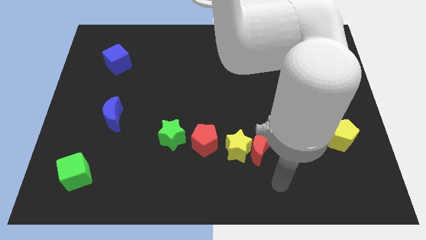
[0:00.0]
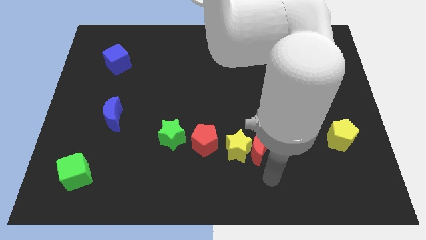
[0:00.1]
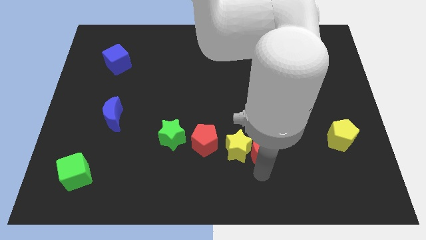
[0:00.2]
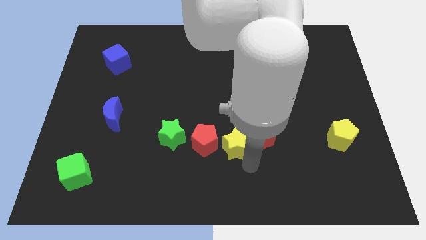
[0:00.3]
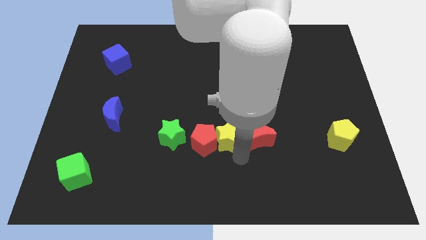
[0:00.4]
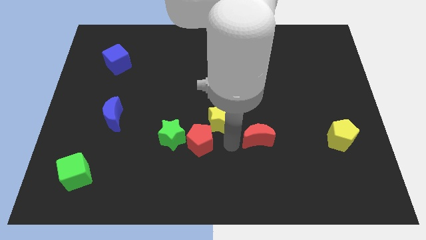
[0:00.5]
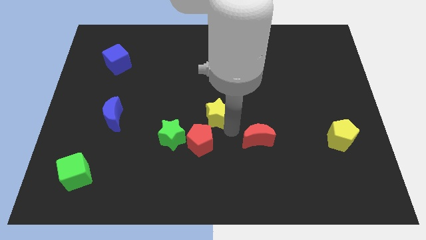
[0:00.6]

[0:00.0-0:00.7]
move the red moon away from the yellow star

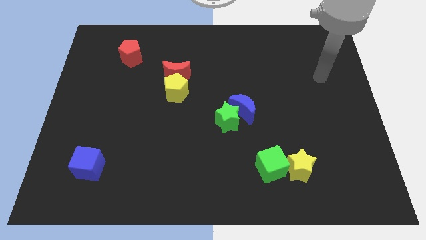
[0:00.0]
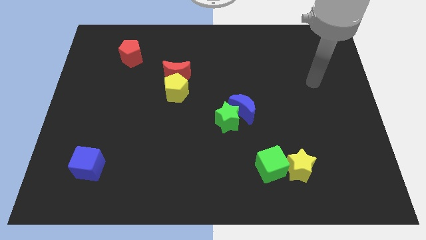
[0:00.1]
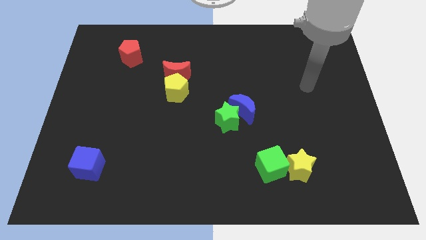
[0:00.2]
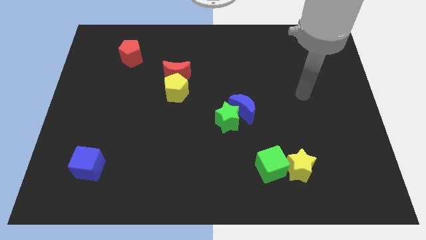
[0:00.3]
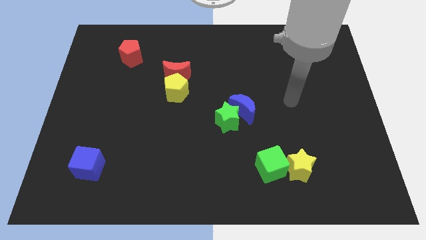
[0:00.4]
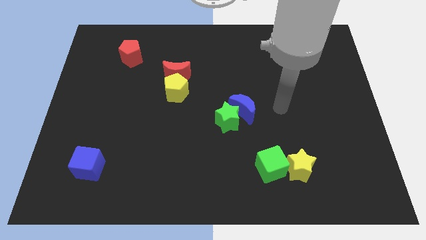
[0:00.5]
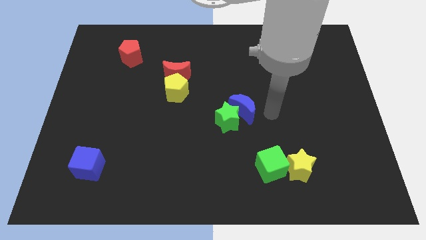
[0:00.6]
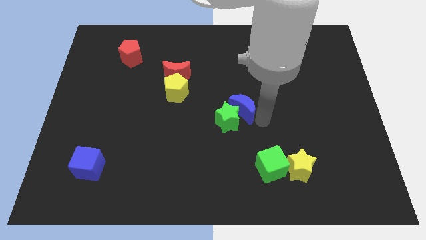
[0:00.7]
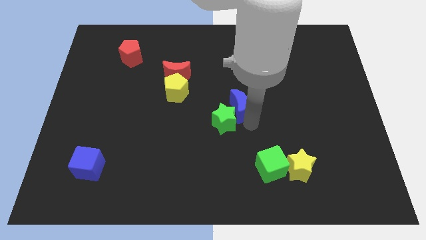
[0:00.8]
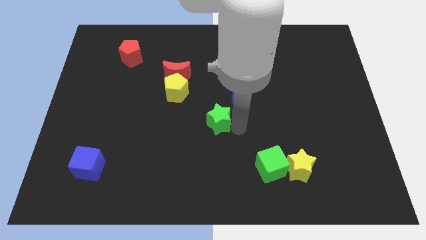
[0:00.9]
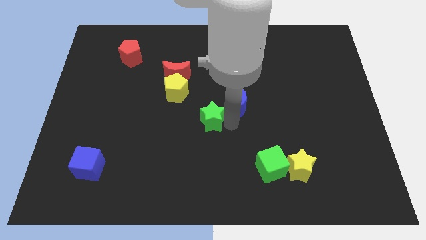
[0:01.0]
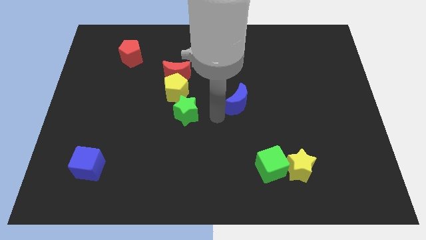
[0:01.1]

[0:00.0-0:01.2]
move the blue moon away from the green star

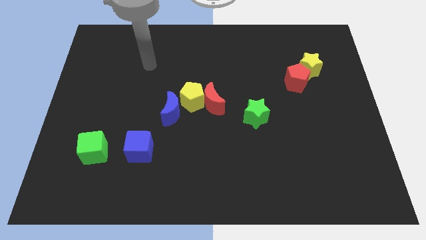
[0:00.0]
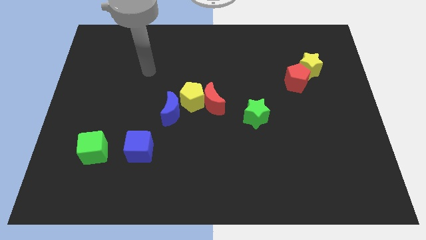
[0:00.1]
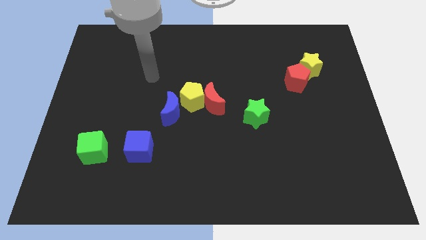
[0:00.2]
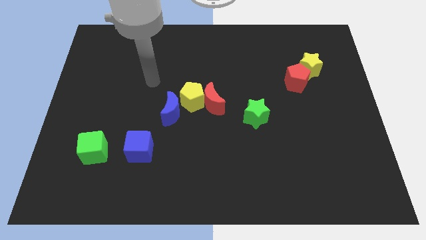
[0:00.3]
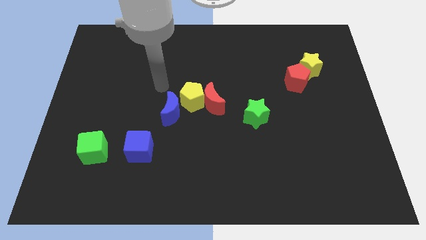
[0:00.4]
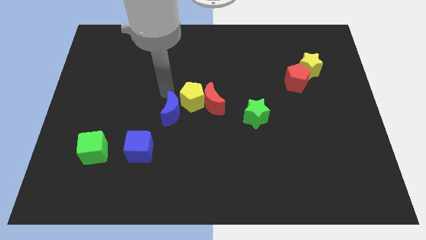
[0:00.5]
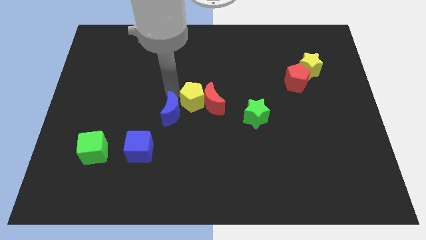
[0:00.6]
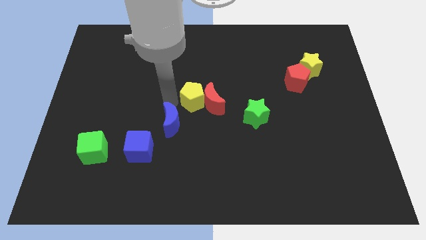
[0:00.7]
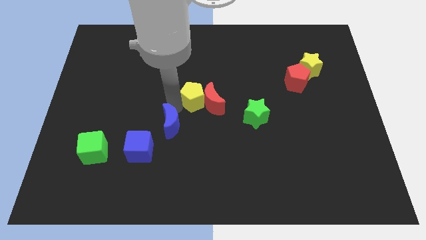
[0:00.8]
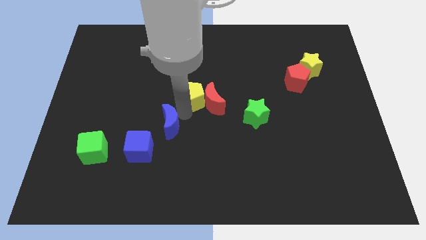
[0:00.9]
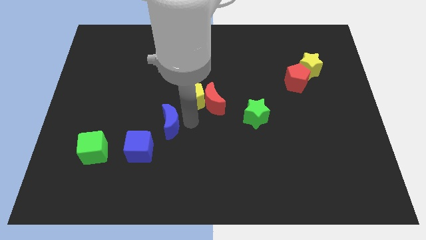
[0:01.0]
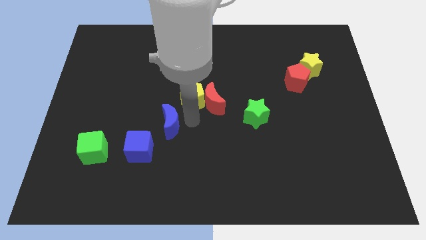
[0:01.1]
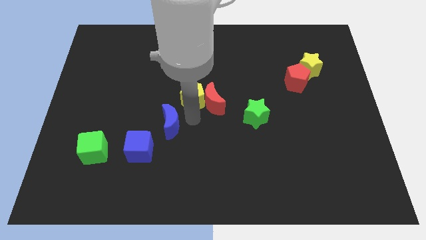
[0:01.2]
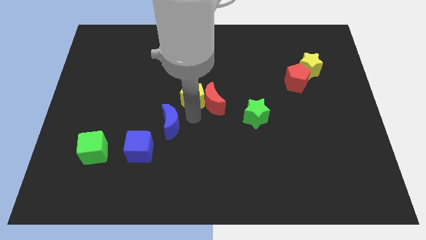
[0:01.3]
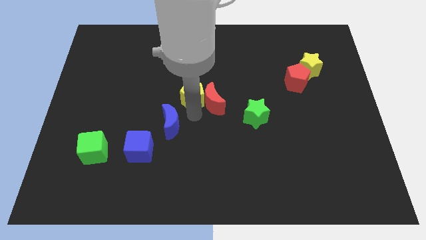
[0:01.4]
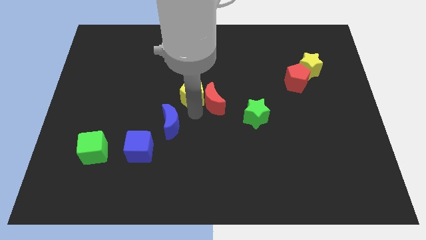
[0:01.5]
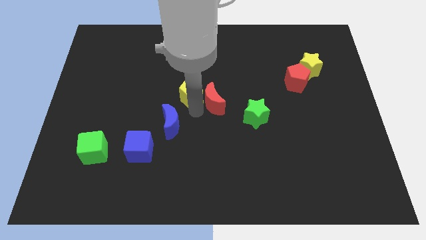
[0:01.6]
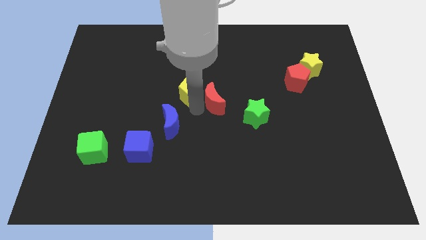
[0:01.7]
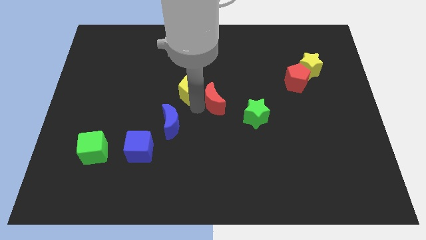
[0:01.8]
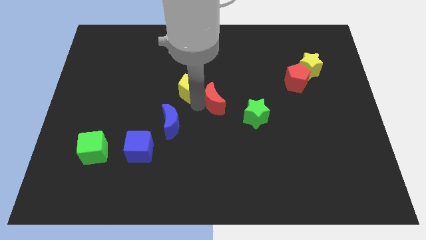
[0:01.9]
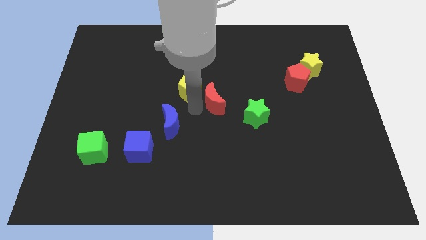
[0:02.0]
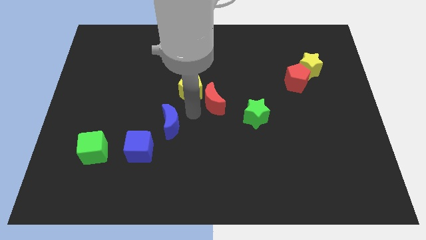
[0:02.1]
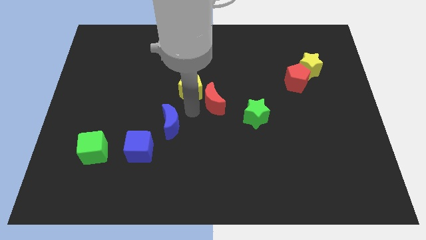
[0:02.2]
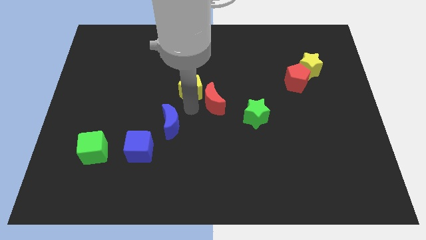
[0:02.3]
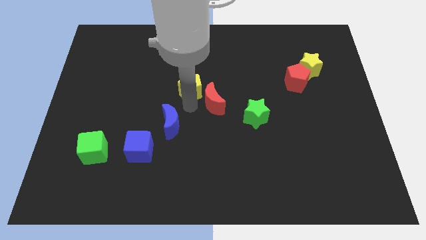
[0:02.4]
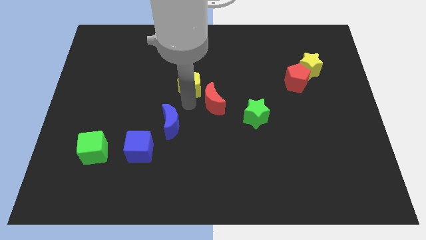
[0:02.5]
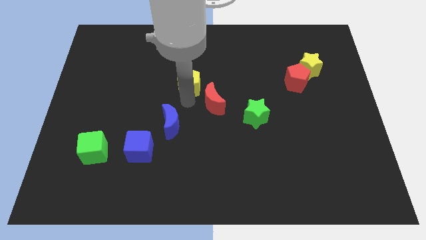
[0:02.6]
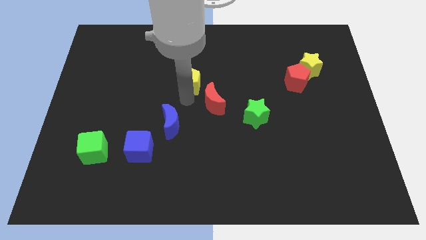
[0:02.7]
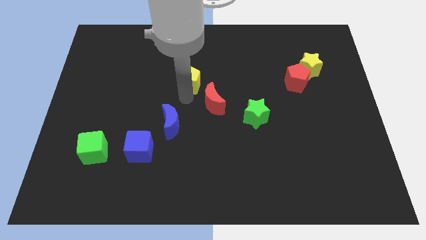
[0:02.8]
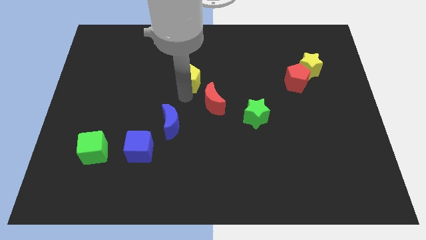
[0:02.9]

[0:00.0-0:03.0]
move the yellow pentagon away from the red moon and blue moon

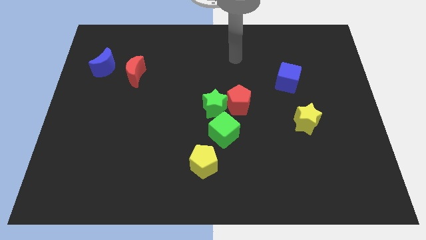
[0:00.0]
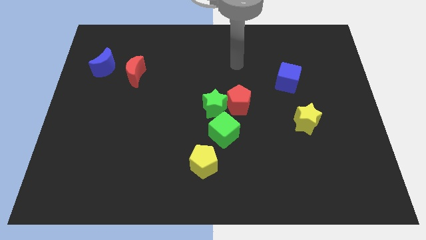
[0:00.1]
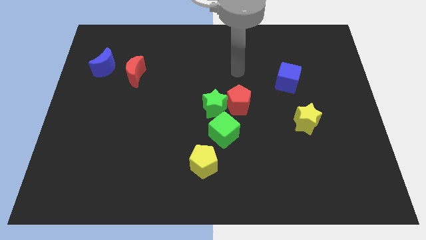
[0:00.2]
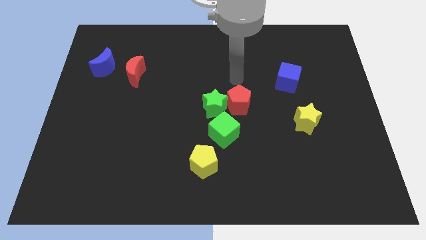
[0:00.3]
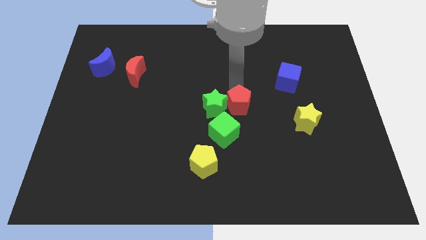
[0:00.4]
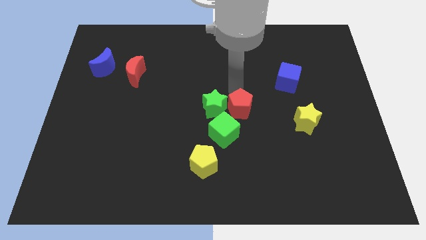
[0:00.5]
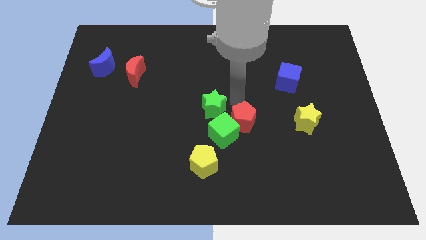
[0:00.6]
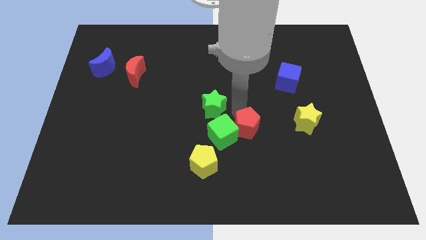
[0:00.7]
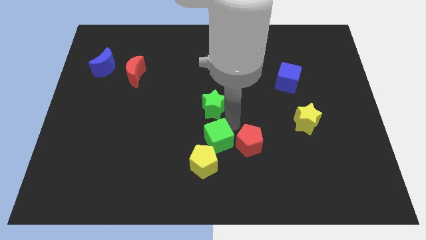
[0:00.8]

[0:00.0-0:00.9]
move the green star away from the red pentagon and green cube

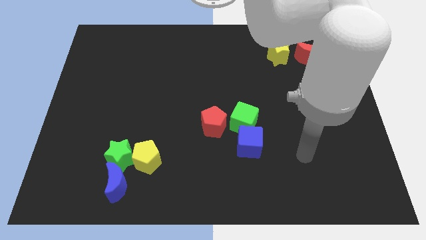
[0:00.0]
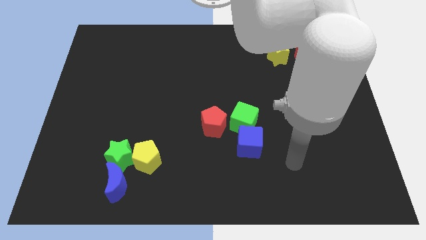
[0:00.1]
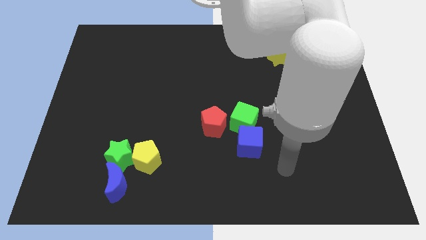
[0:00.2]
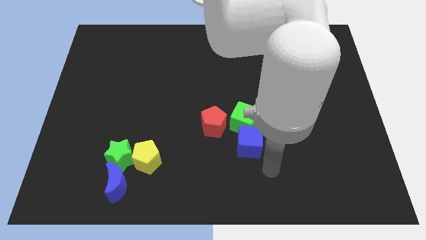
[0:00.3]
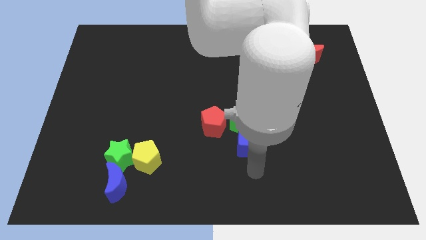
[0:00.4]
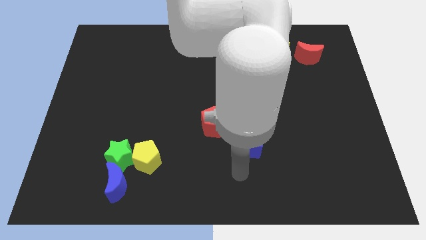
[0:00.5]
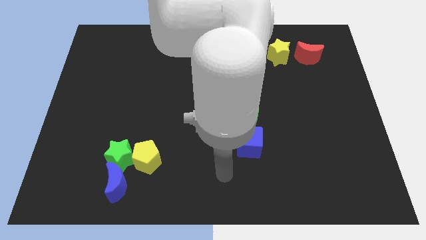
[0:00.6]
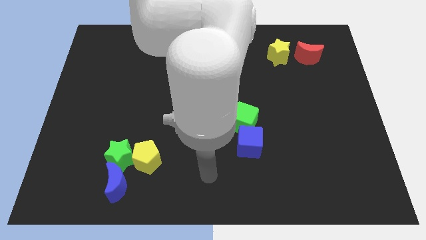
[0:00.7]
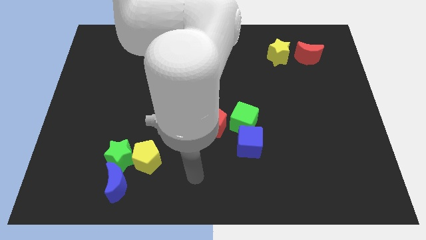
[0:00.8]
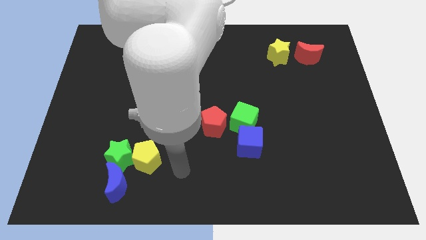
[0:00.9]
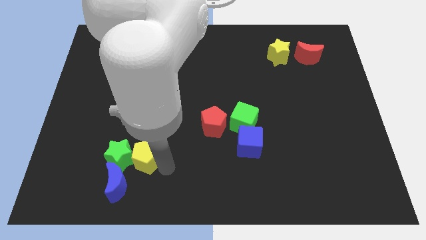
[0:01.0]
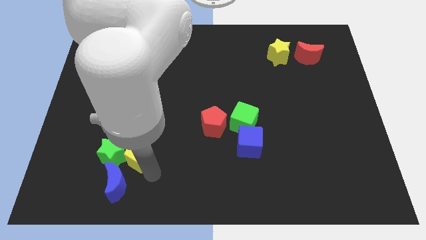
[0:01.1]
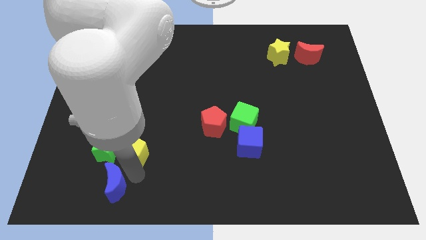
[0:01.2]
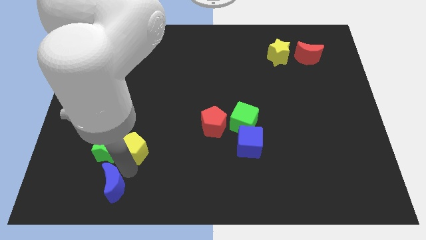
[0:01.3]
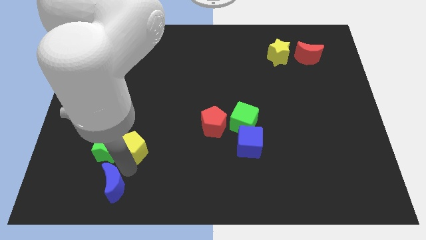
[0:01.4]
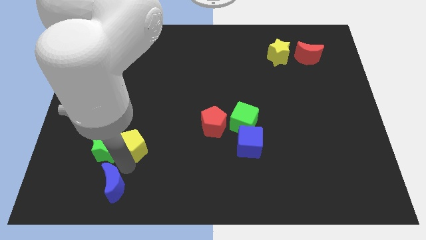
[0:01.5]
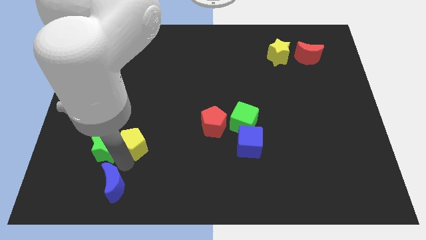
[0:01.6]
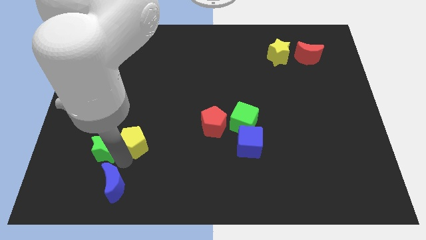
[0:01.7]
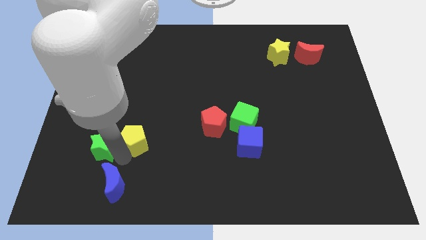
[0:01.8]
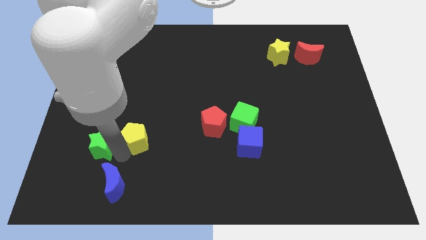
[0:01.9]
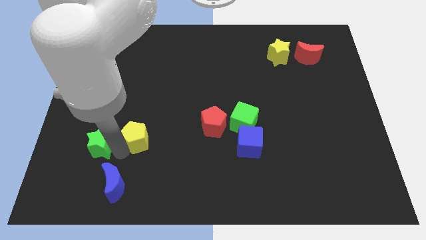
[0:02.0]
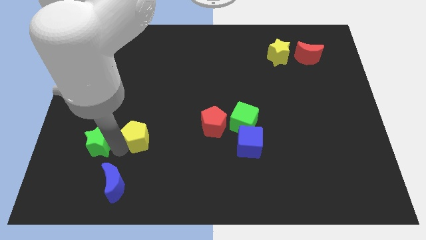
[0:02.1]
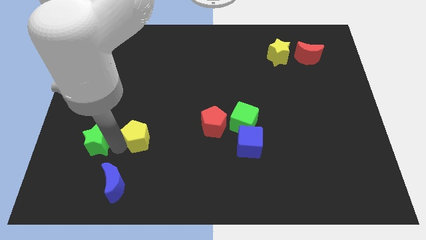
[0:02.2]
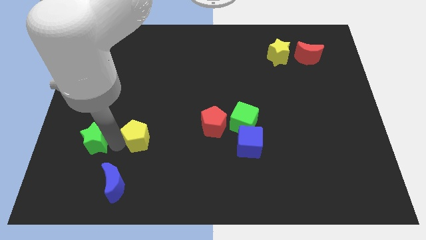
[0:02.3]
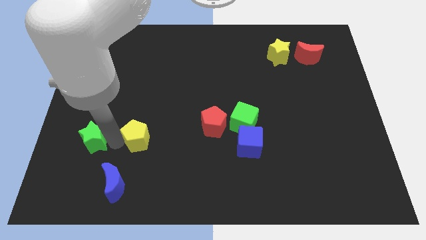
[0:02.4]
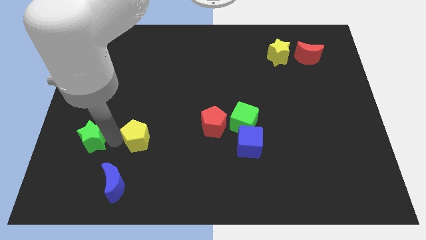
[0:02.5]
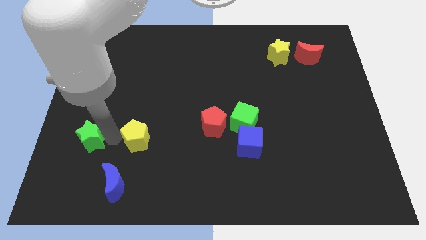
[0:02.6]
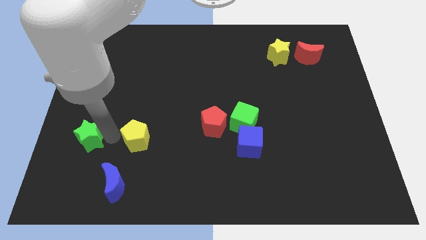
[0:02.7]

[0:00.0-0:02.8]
move the green star away from the yellow pentagon and blue moon

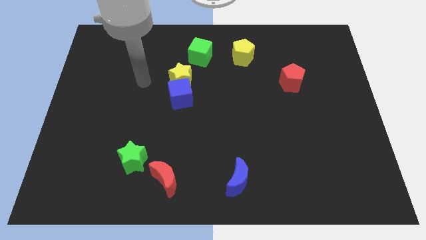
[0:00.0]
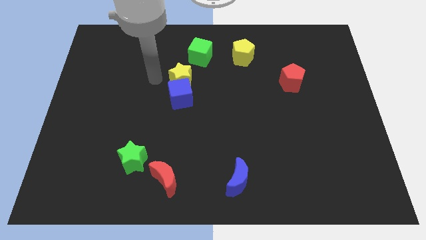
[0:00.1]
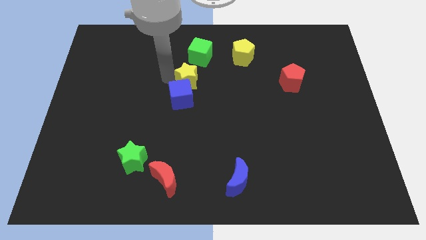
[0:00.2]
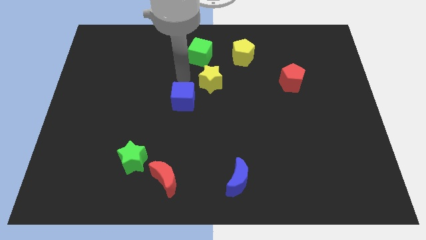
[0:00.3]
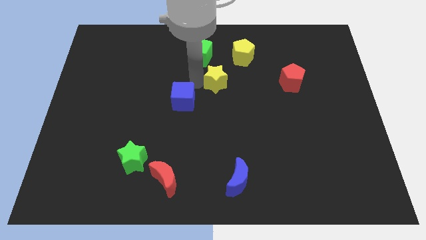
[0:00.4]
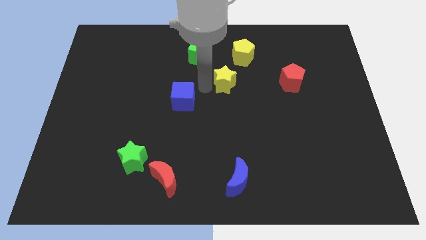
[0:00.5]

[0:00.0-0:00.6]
pull the blue cube apart from the yellow star
